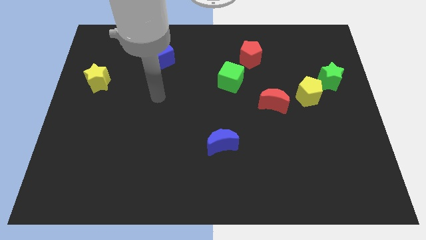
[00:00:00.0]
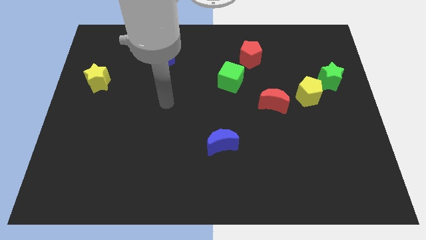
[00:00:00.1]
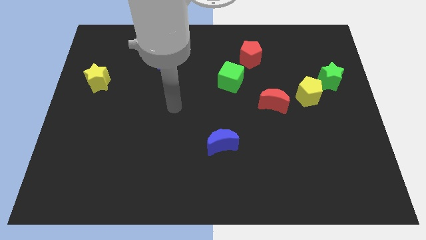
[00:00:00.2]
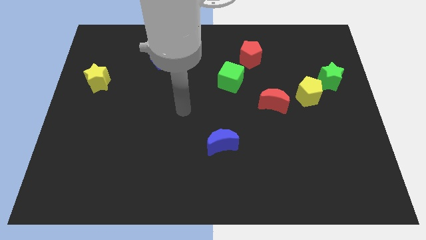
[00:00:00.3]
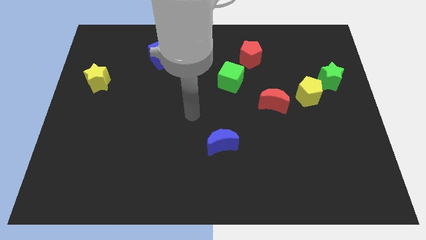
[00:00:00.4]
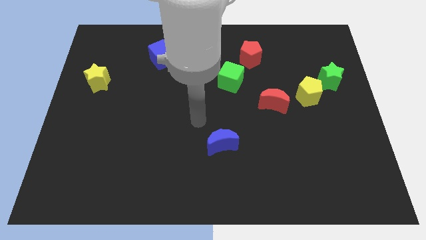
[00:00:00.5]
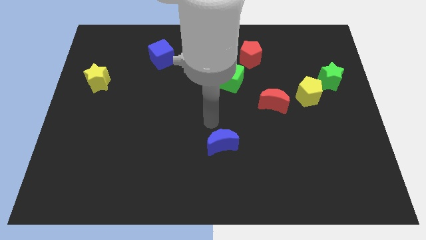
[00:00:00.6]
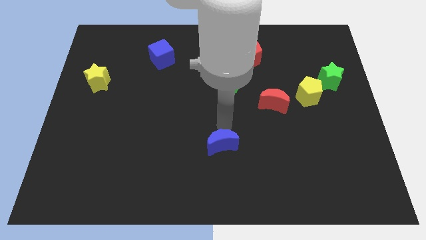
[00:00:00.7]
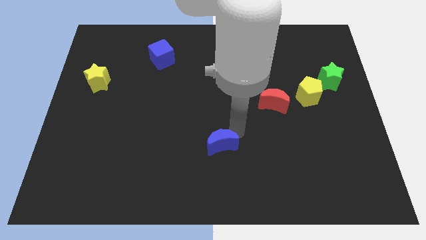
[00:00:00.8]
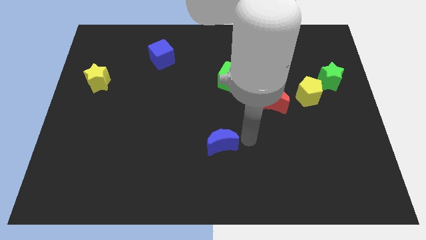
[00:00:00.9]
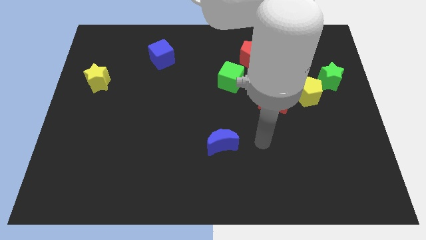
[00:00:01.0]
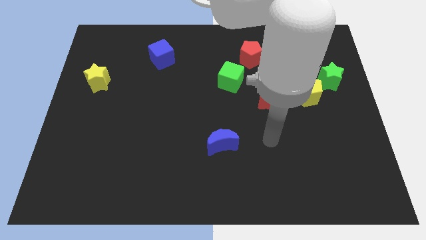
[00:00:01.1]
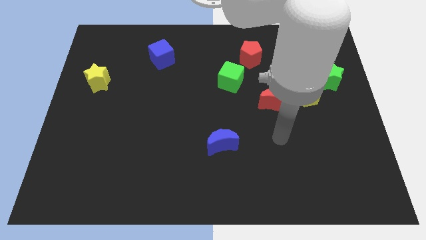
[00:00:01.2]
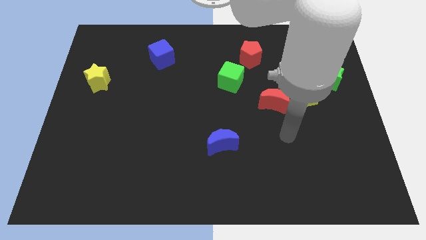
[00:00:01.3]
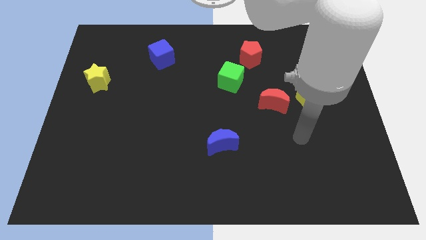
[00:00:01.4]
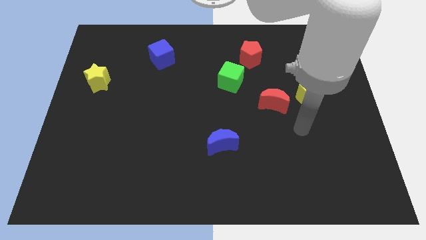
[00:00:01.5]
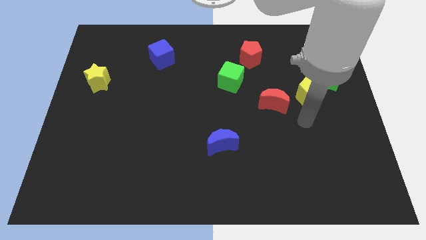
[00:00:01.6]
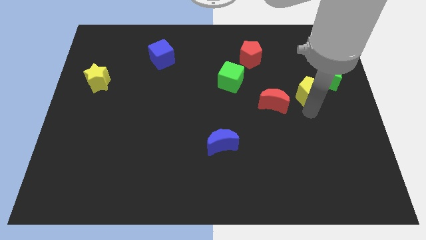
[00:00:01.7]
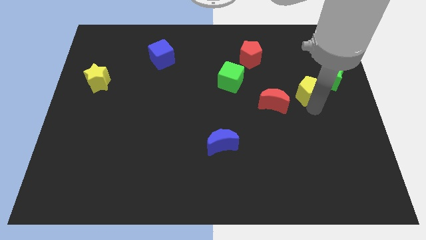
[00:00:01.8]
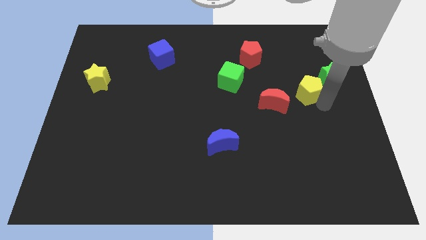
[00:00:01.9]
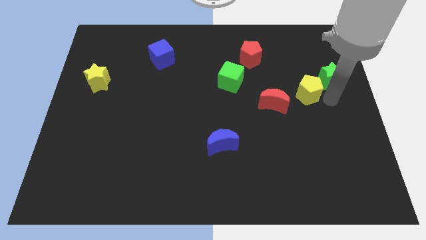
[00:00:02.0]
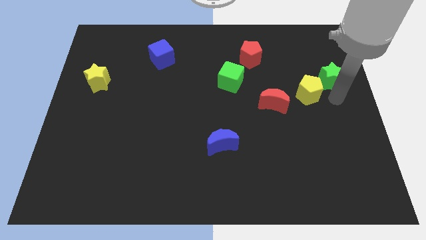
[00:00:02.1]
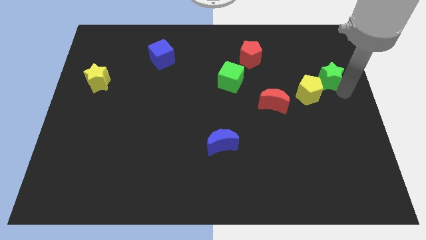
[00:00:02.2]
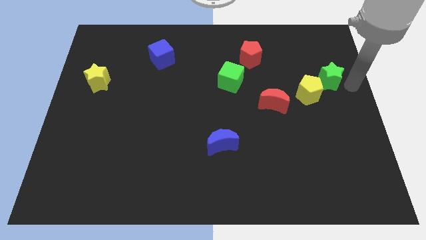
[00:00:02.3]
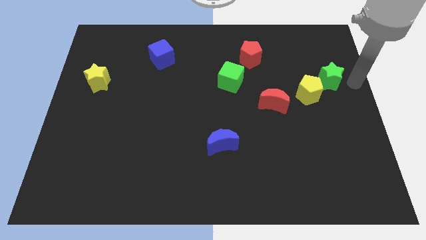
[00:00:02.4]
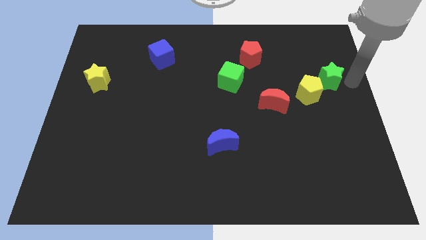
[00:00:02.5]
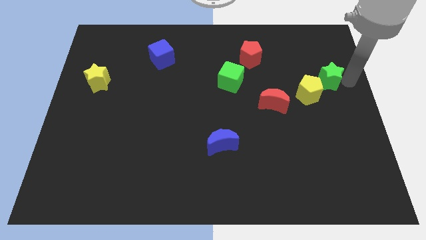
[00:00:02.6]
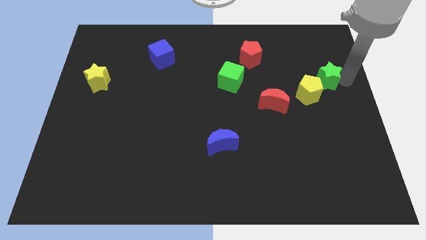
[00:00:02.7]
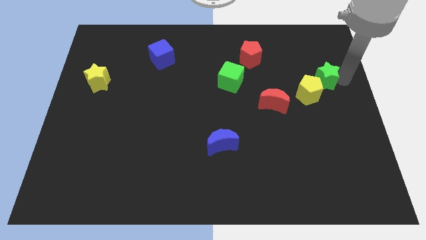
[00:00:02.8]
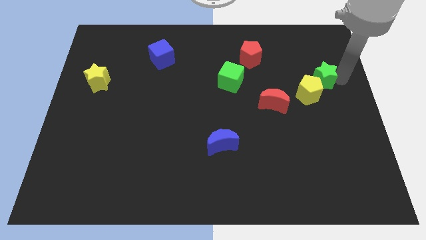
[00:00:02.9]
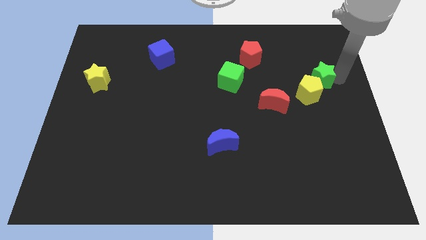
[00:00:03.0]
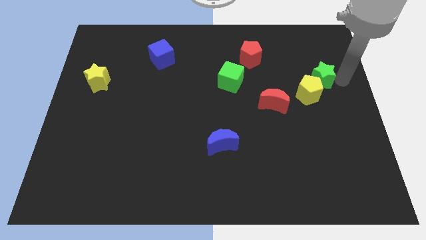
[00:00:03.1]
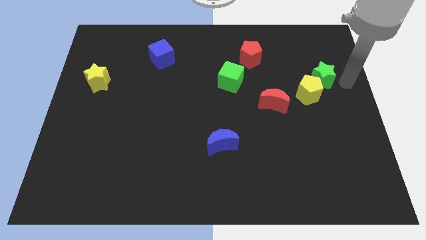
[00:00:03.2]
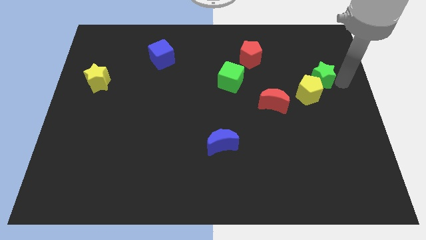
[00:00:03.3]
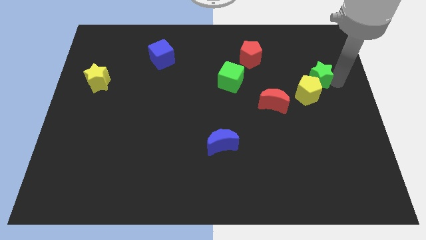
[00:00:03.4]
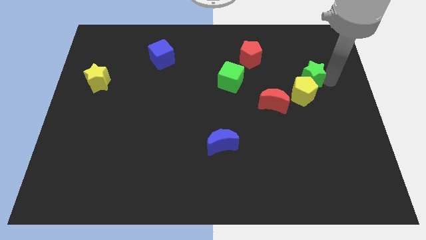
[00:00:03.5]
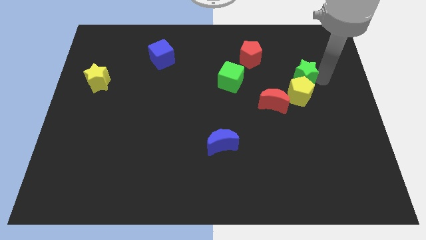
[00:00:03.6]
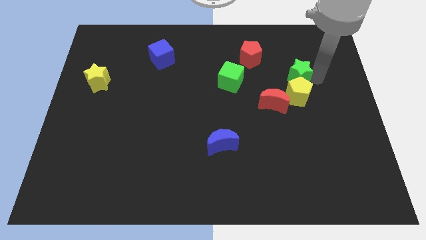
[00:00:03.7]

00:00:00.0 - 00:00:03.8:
slightly move the green star to the left

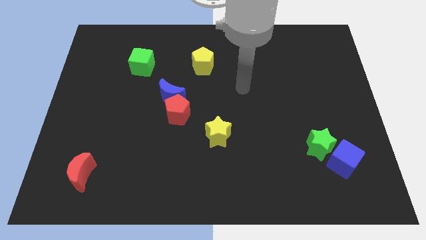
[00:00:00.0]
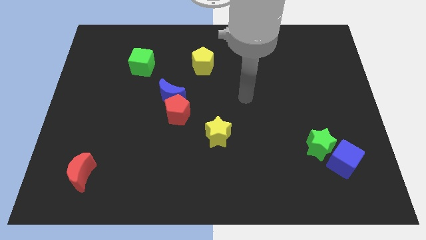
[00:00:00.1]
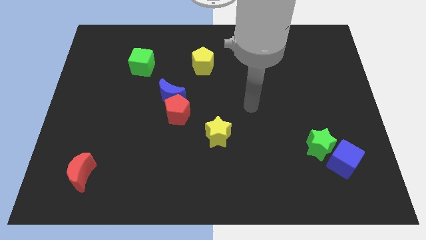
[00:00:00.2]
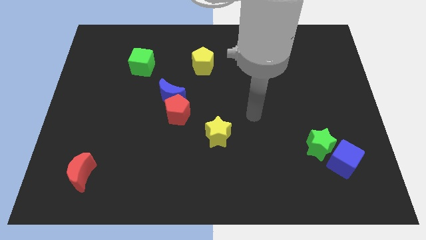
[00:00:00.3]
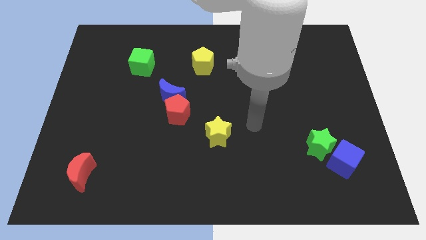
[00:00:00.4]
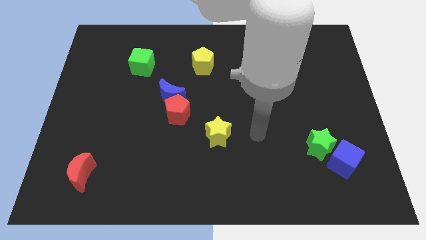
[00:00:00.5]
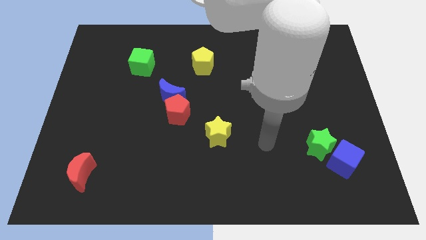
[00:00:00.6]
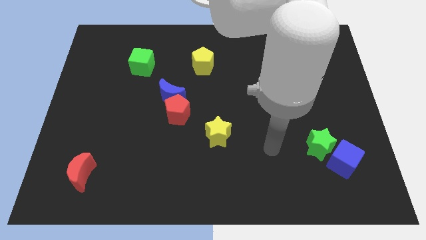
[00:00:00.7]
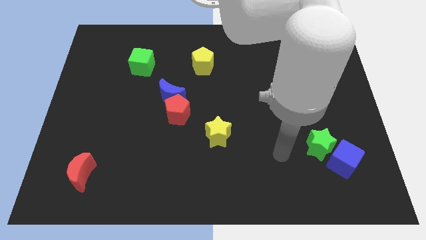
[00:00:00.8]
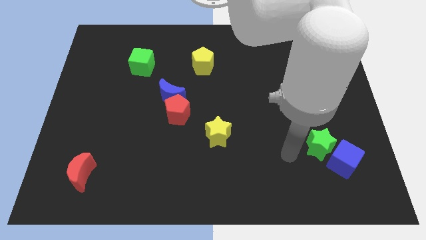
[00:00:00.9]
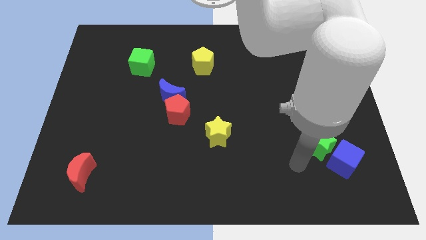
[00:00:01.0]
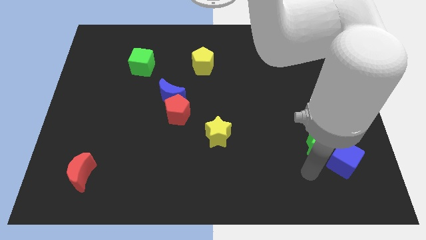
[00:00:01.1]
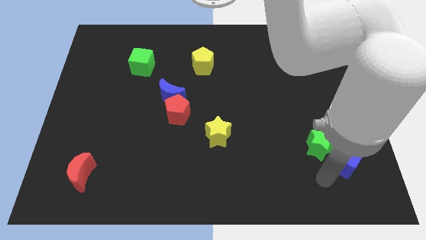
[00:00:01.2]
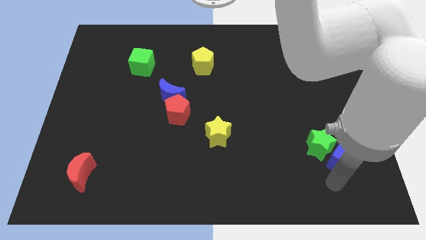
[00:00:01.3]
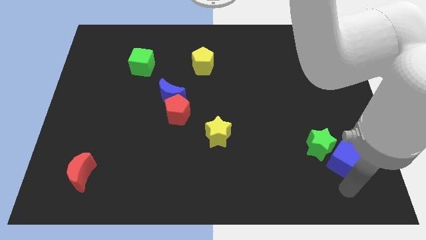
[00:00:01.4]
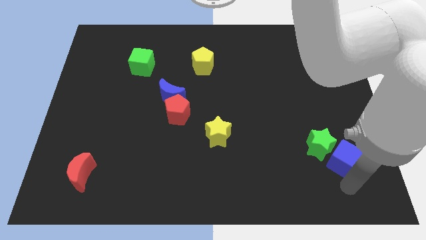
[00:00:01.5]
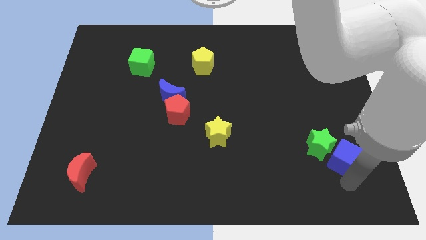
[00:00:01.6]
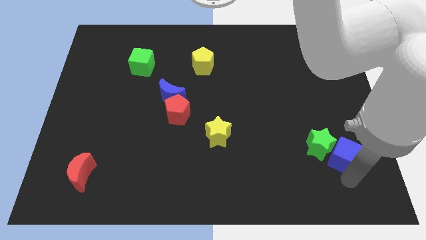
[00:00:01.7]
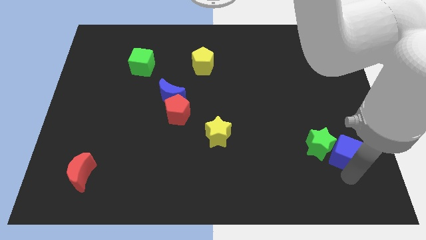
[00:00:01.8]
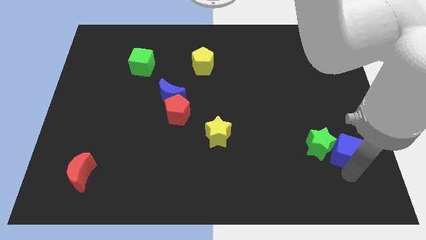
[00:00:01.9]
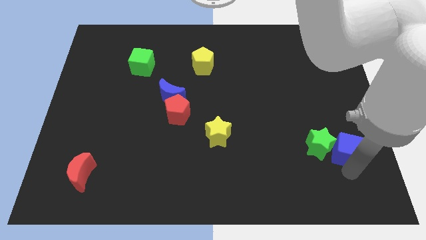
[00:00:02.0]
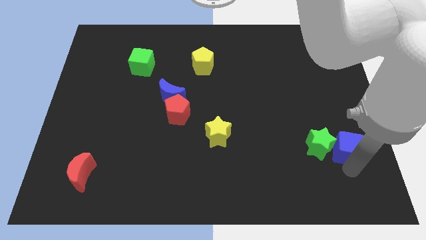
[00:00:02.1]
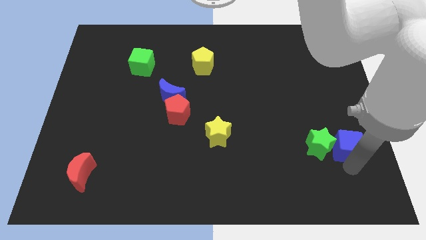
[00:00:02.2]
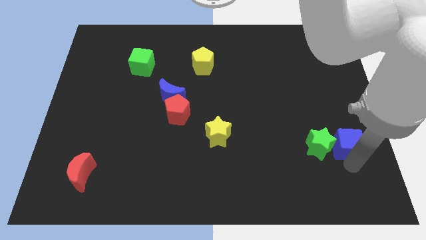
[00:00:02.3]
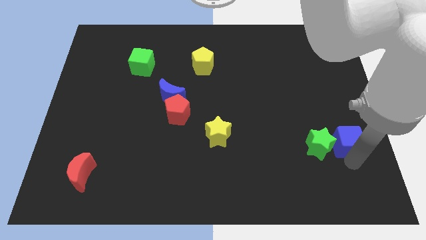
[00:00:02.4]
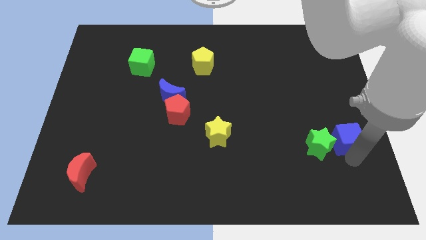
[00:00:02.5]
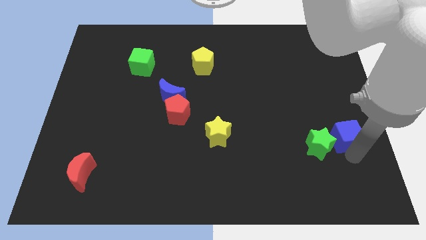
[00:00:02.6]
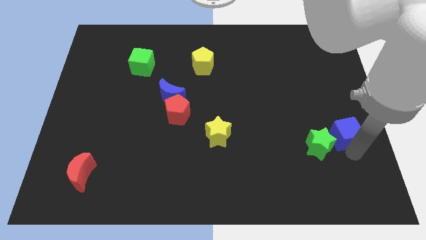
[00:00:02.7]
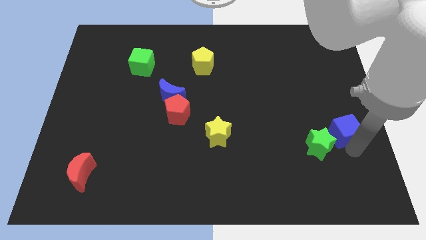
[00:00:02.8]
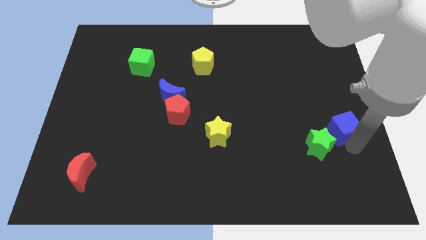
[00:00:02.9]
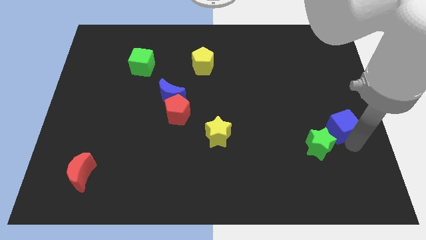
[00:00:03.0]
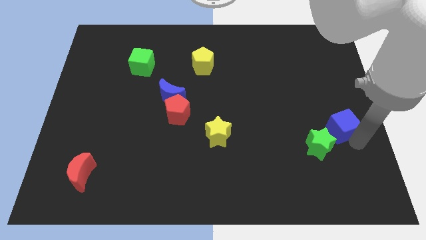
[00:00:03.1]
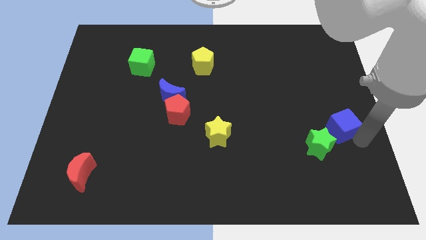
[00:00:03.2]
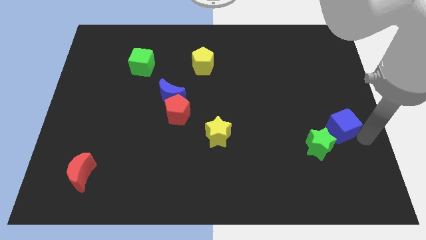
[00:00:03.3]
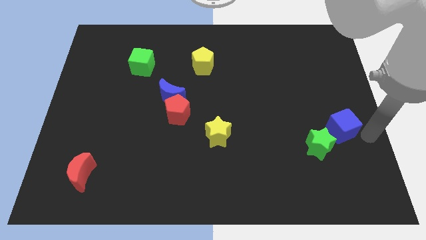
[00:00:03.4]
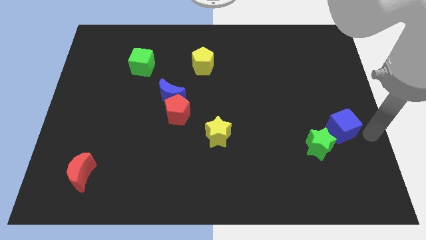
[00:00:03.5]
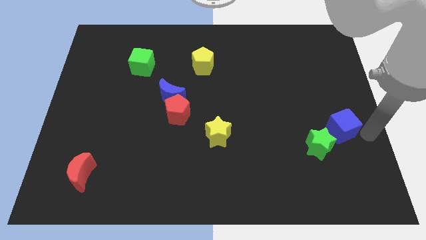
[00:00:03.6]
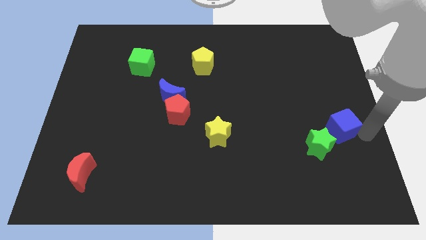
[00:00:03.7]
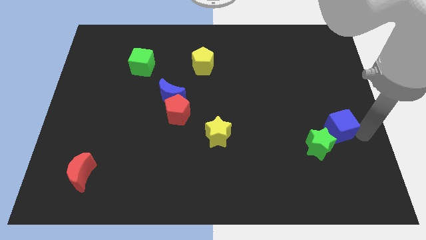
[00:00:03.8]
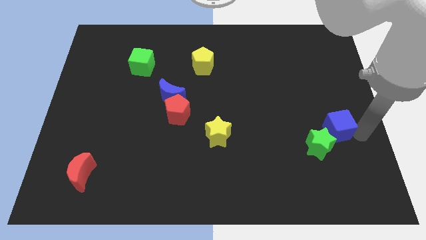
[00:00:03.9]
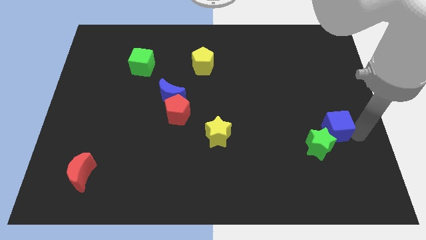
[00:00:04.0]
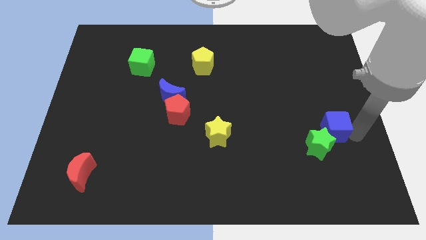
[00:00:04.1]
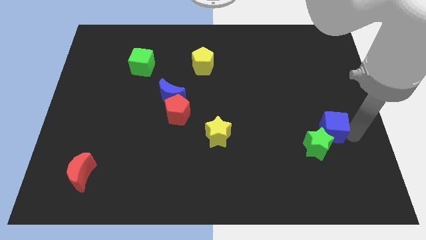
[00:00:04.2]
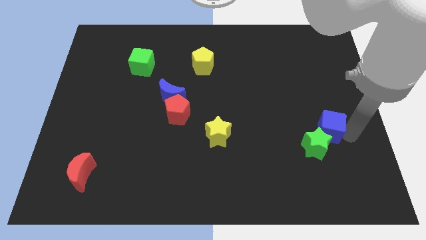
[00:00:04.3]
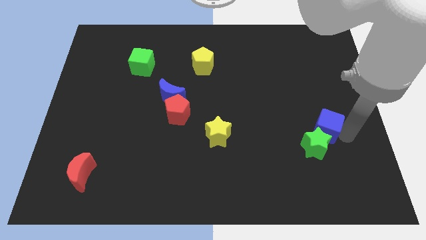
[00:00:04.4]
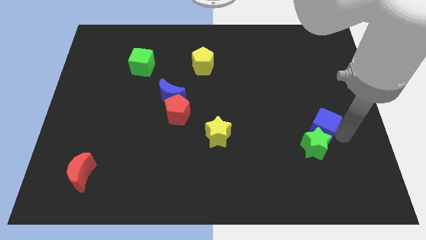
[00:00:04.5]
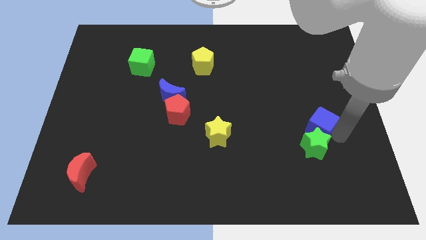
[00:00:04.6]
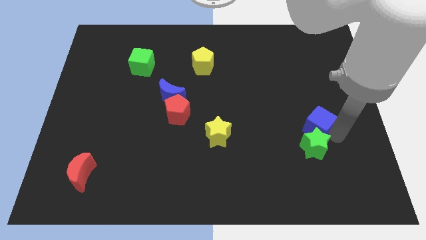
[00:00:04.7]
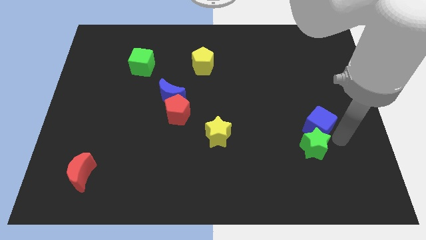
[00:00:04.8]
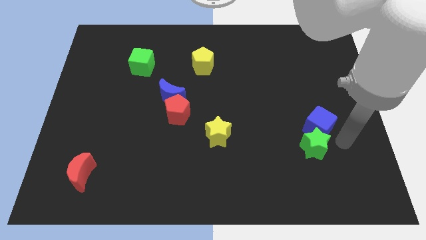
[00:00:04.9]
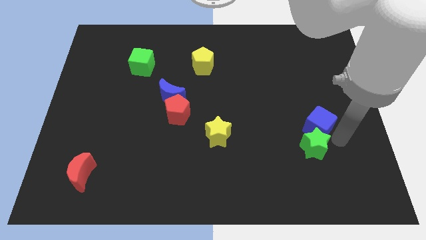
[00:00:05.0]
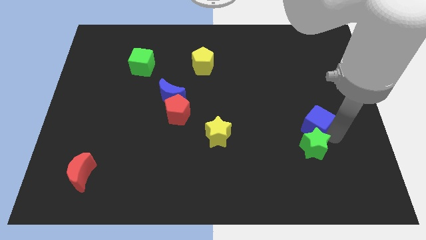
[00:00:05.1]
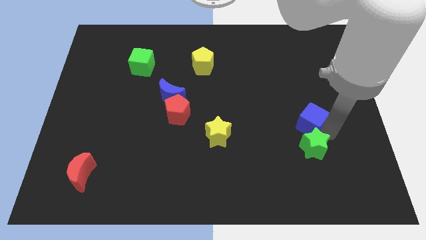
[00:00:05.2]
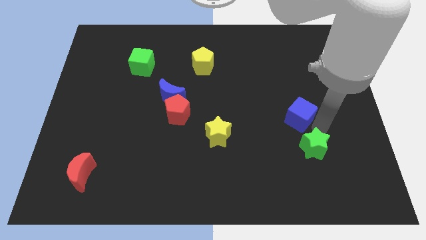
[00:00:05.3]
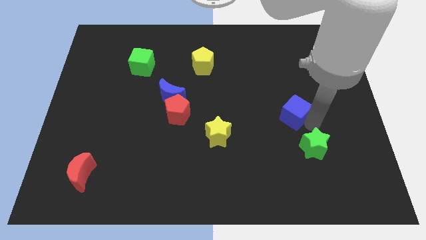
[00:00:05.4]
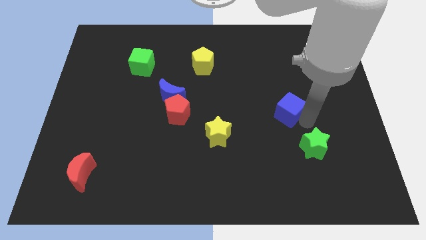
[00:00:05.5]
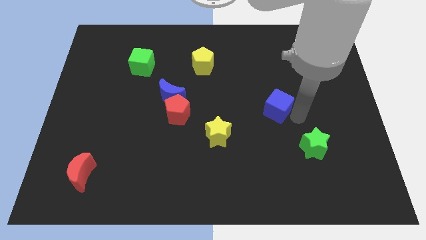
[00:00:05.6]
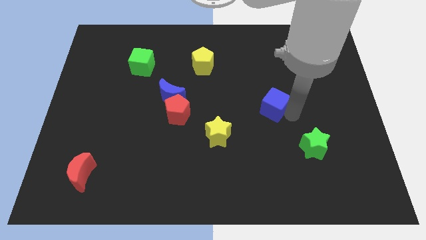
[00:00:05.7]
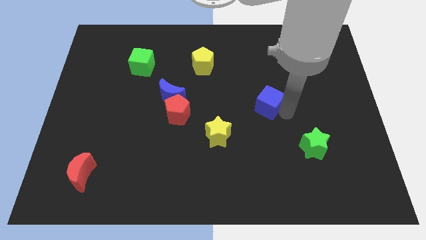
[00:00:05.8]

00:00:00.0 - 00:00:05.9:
push the blue cube up and then left
